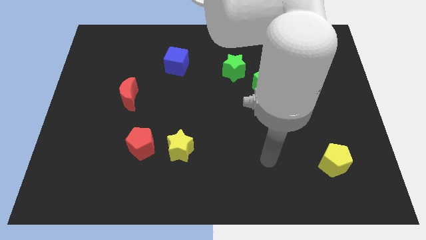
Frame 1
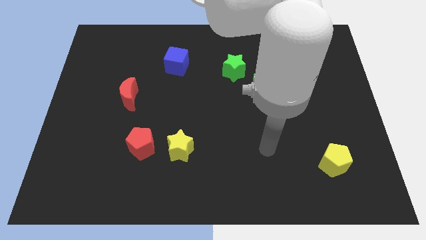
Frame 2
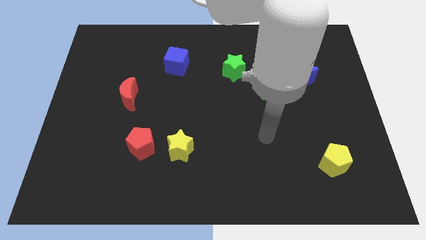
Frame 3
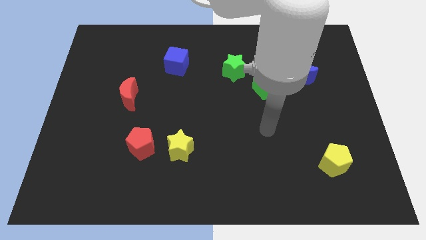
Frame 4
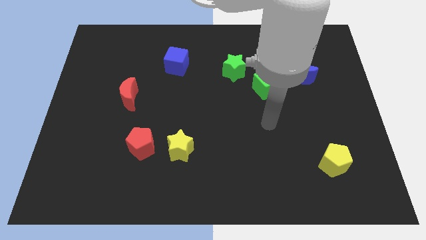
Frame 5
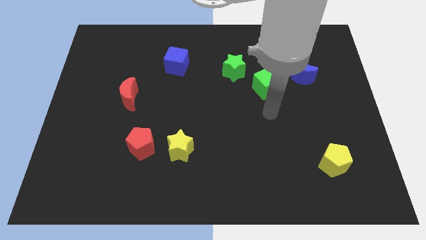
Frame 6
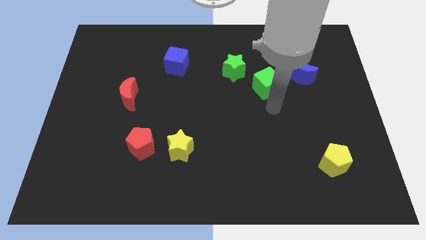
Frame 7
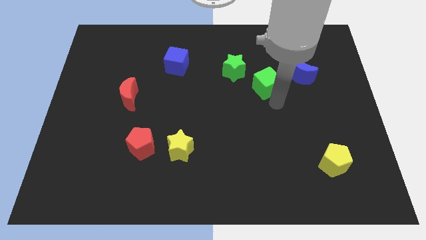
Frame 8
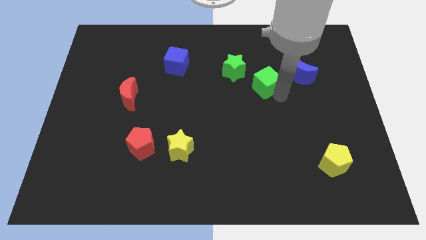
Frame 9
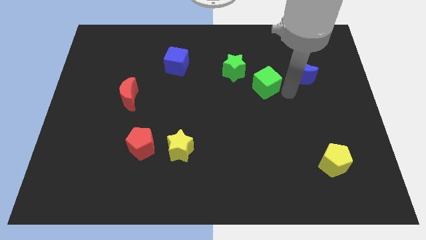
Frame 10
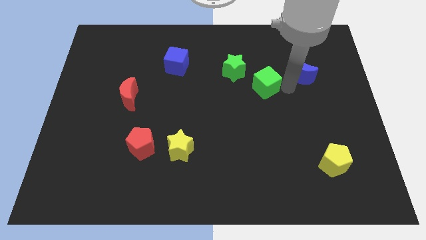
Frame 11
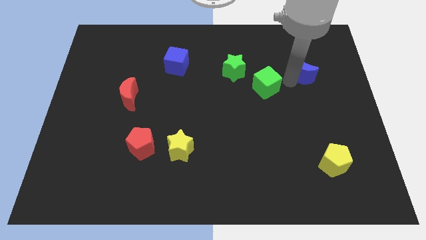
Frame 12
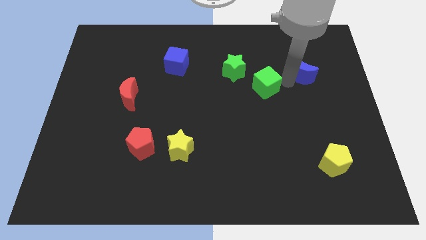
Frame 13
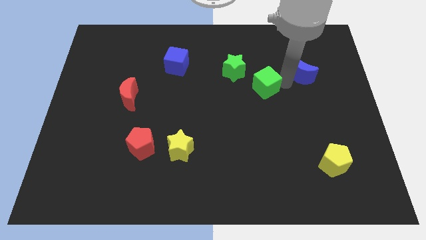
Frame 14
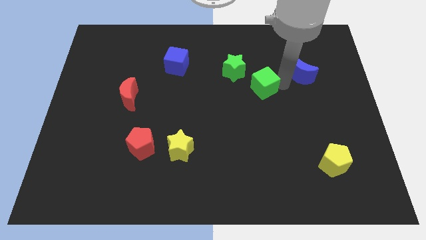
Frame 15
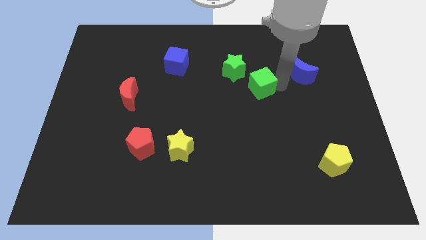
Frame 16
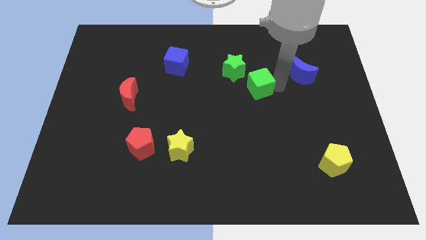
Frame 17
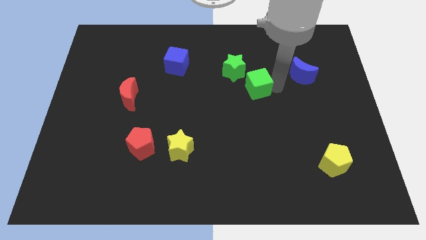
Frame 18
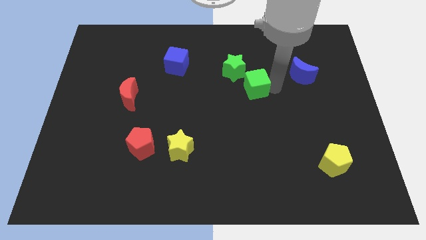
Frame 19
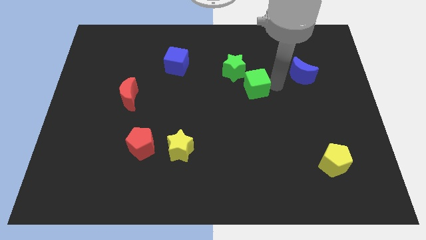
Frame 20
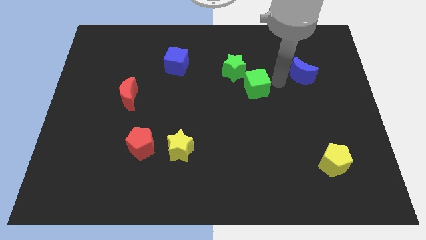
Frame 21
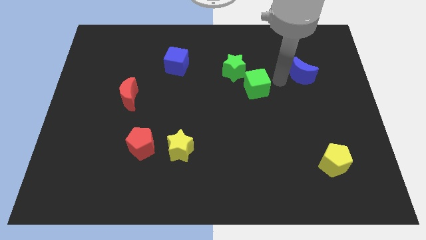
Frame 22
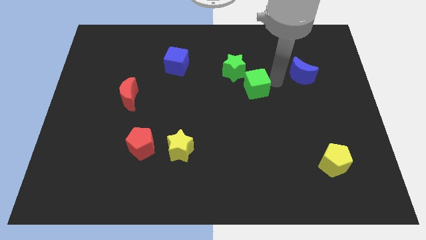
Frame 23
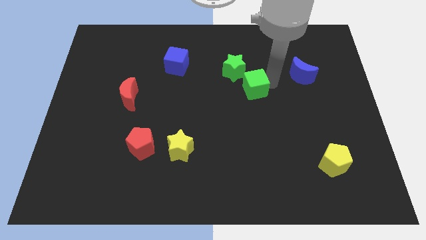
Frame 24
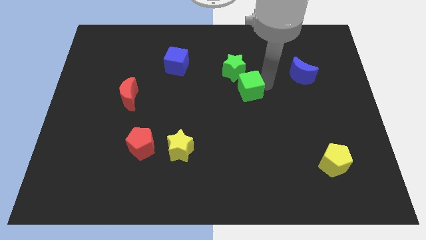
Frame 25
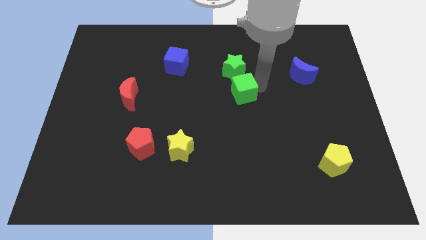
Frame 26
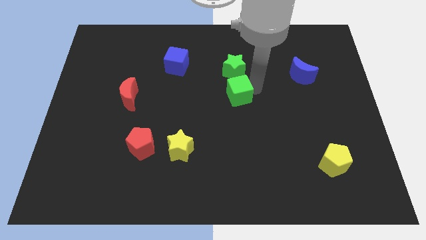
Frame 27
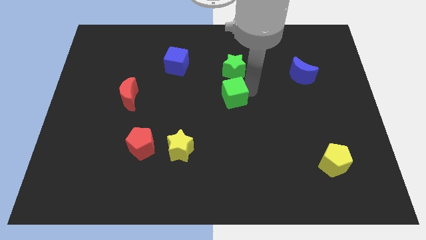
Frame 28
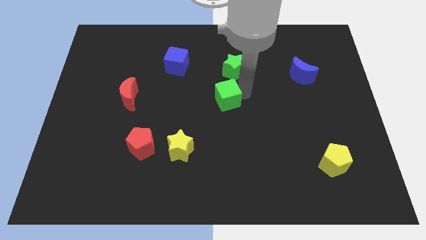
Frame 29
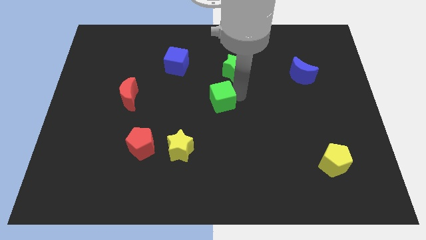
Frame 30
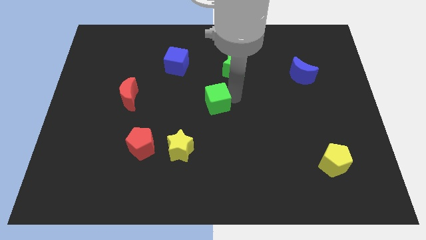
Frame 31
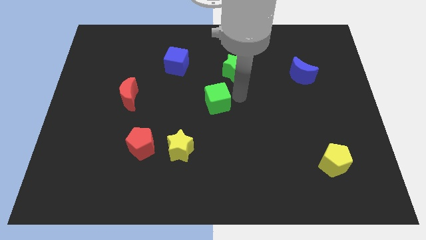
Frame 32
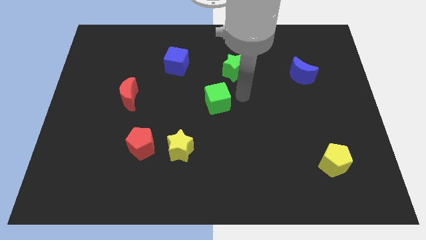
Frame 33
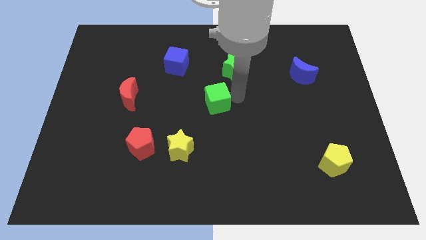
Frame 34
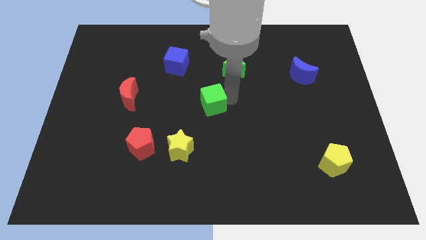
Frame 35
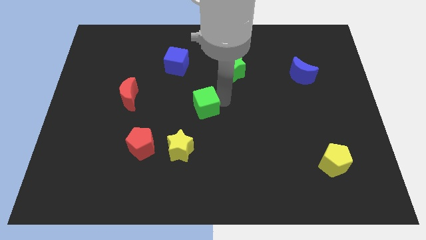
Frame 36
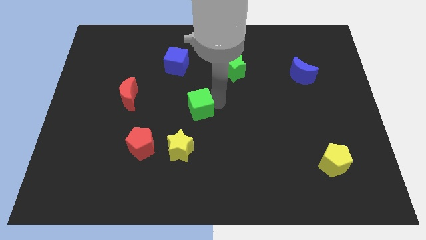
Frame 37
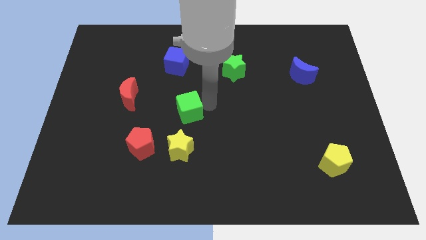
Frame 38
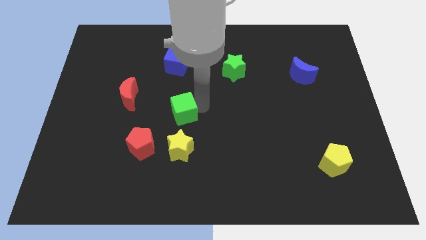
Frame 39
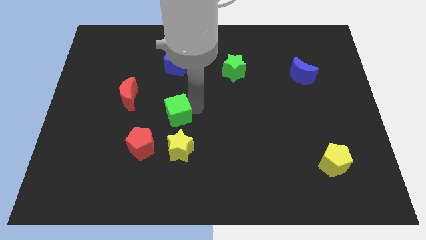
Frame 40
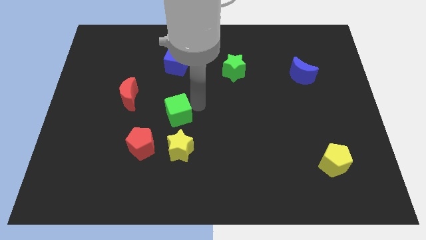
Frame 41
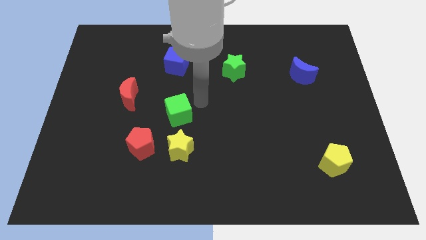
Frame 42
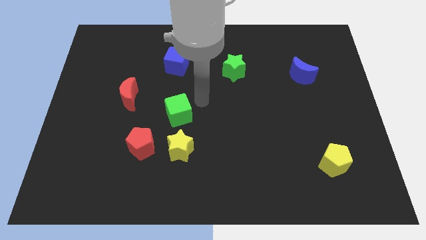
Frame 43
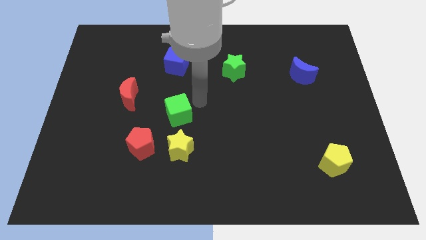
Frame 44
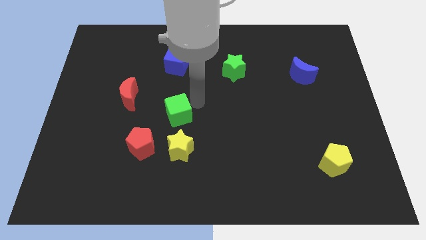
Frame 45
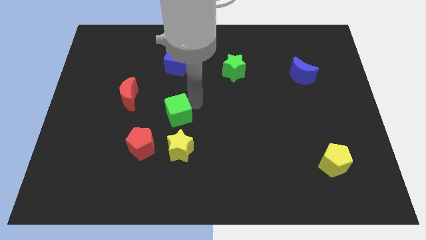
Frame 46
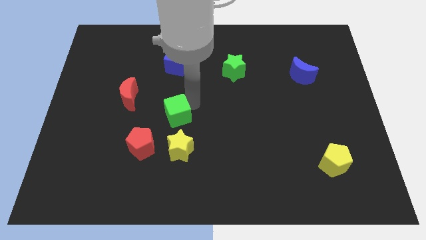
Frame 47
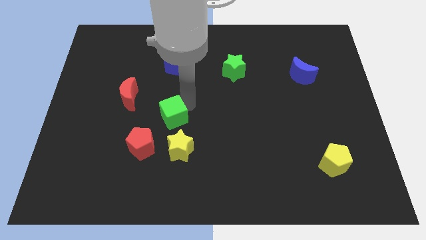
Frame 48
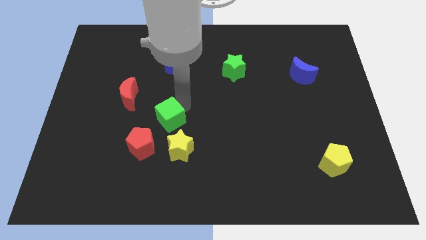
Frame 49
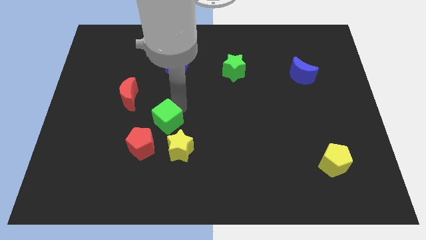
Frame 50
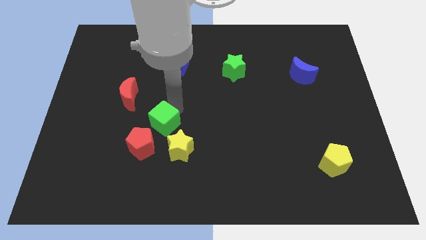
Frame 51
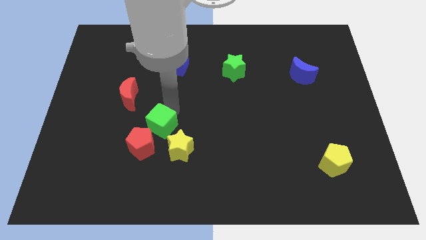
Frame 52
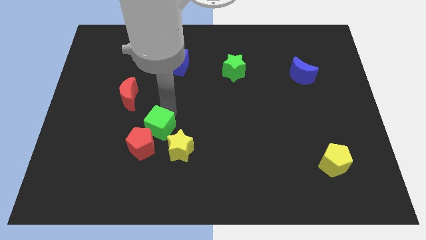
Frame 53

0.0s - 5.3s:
slide the green cube towards the red pentagon

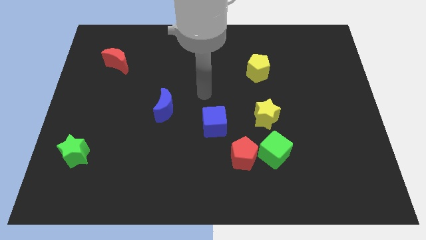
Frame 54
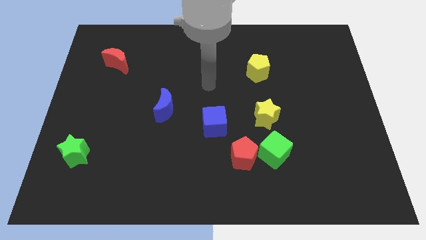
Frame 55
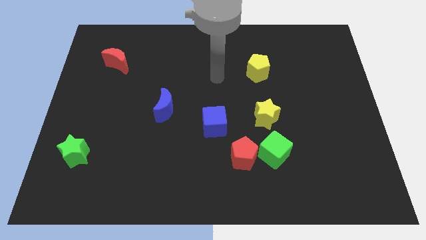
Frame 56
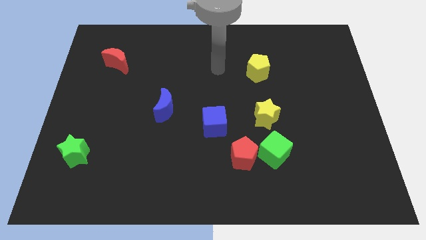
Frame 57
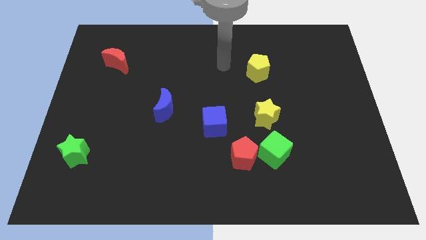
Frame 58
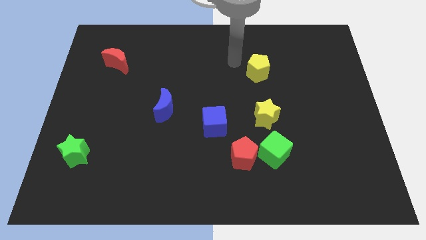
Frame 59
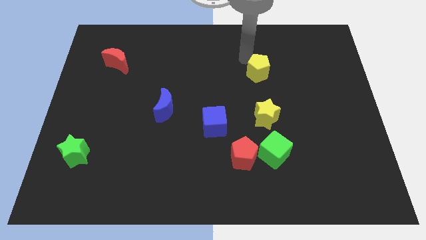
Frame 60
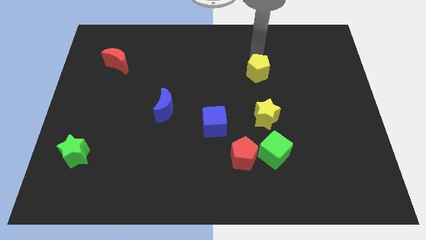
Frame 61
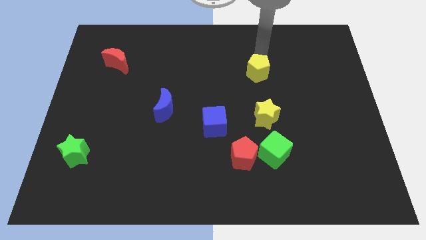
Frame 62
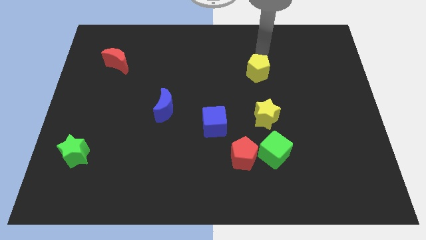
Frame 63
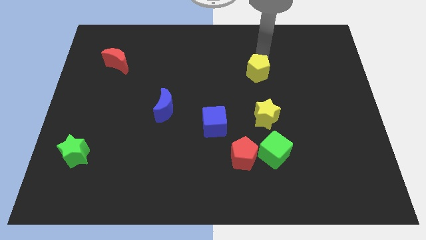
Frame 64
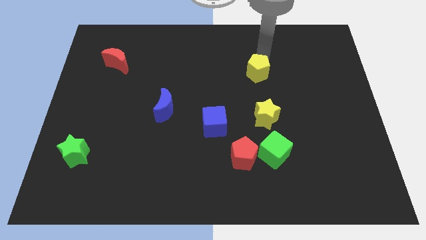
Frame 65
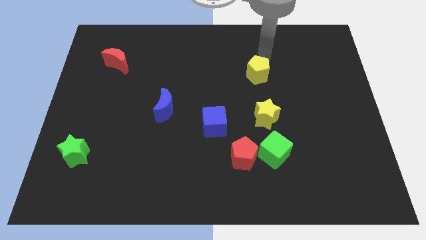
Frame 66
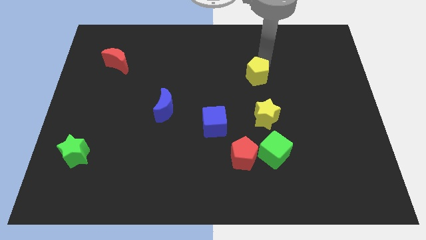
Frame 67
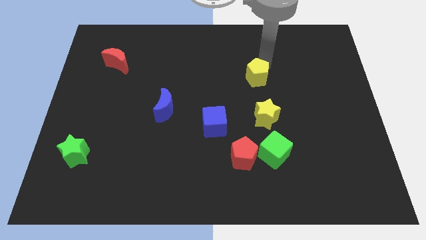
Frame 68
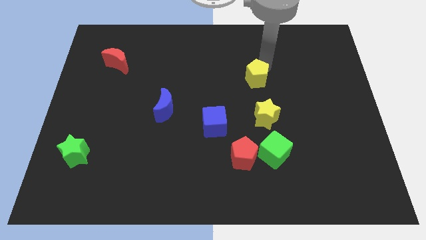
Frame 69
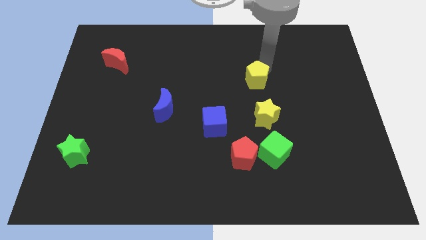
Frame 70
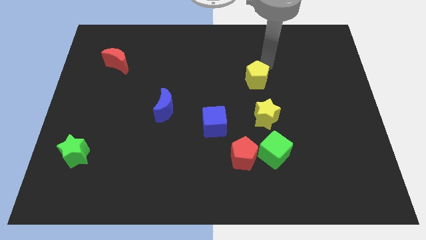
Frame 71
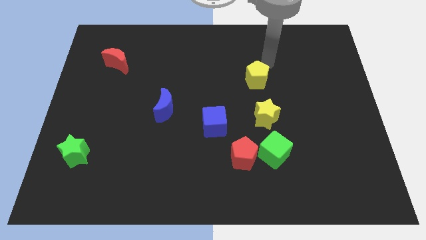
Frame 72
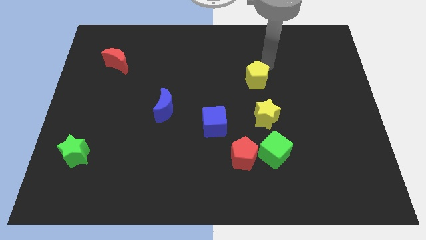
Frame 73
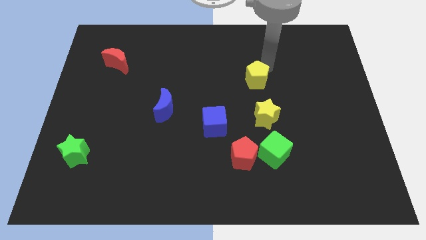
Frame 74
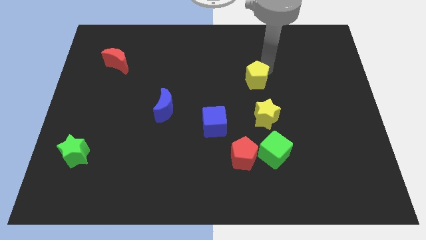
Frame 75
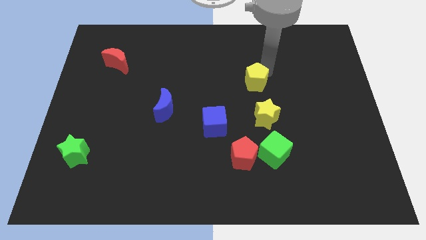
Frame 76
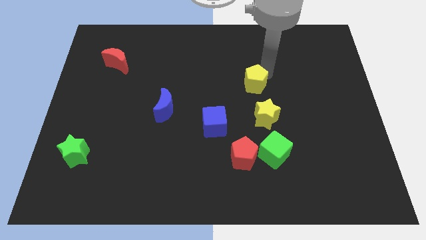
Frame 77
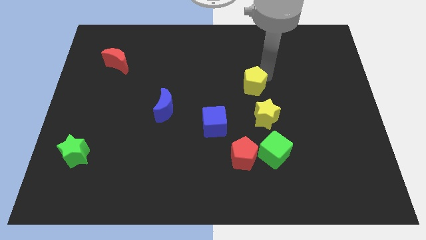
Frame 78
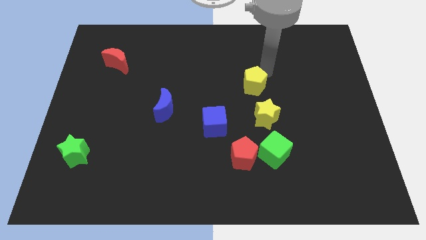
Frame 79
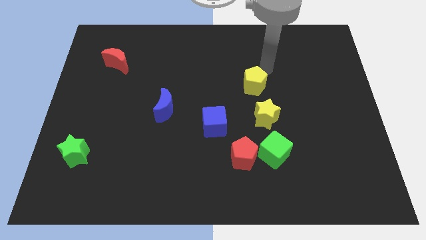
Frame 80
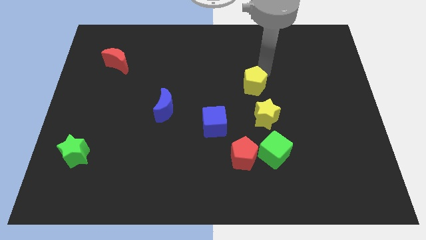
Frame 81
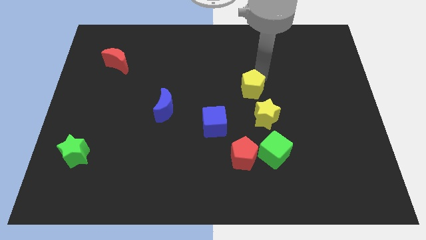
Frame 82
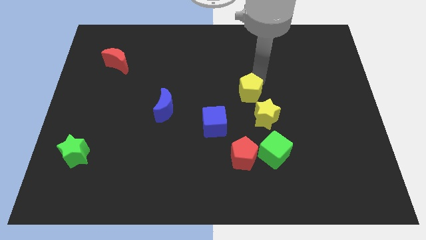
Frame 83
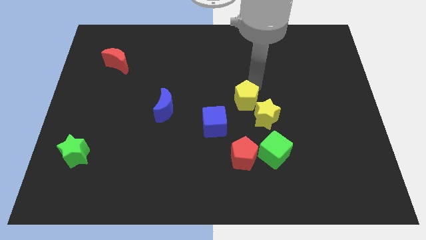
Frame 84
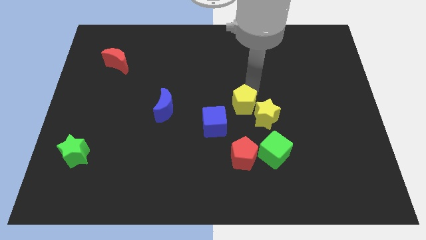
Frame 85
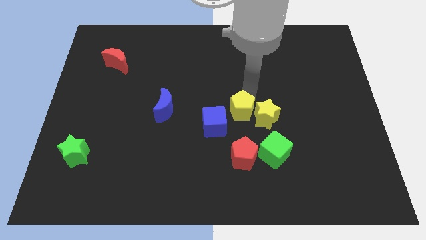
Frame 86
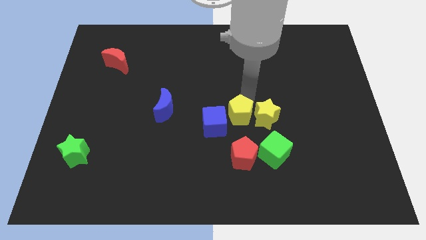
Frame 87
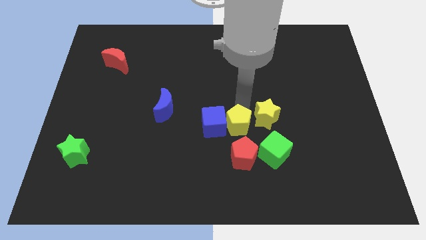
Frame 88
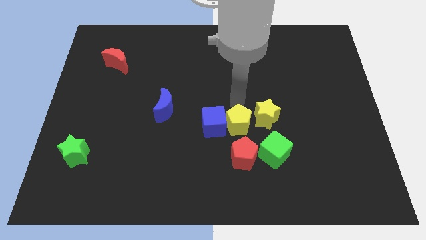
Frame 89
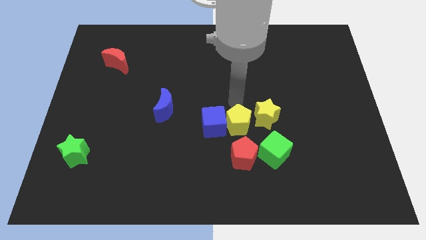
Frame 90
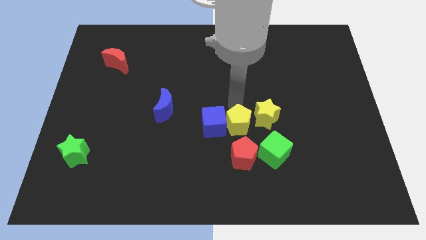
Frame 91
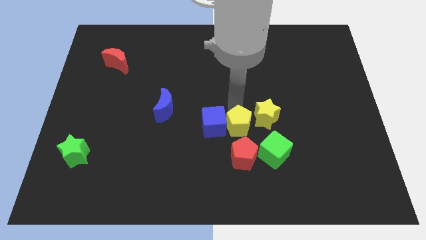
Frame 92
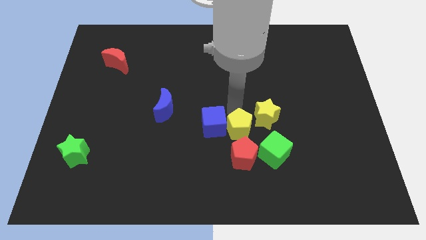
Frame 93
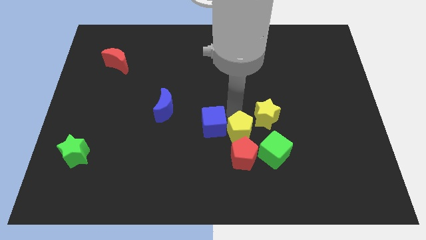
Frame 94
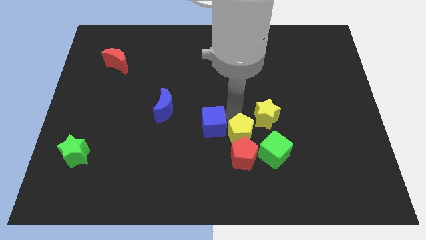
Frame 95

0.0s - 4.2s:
push the yellow pentagon to the red pentagon
